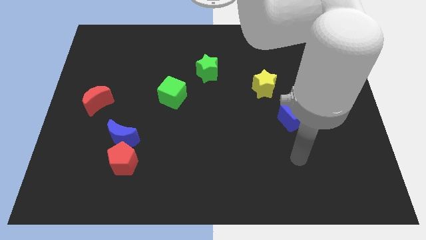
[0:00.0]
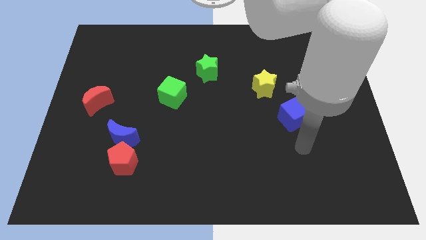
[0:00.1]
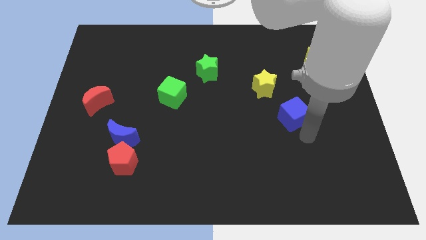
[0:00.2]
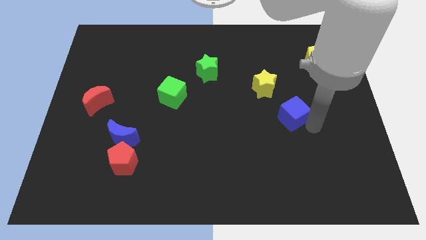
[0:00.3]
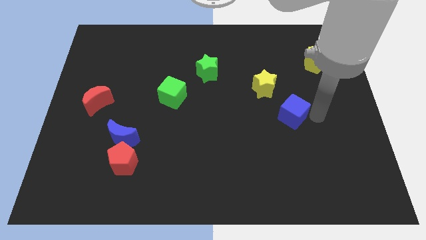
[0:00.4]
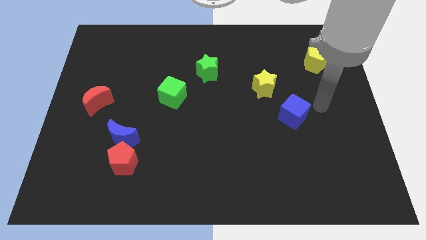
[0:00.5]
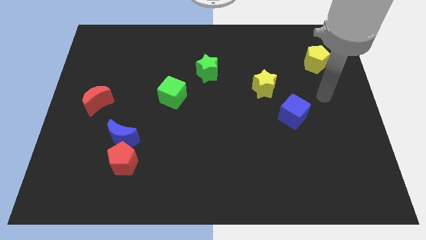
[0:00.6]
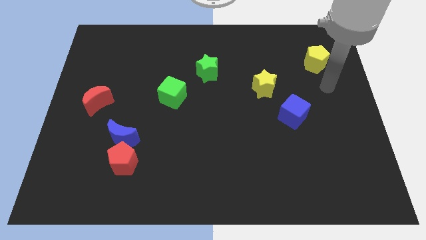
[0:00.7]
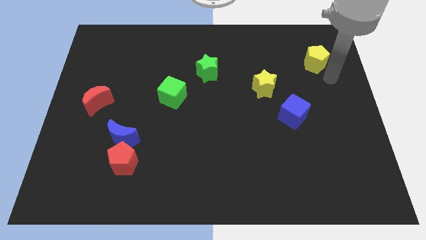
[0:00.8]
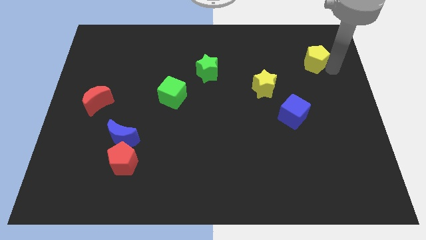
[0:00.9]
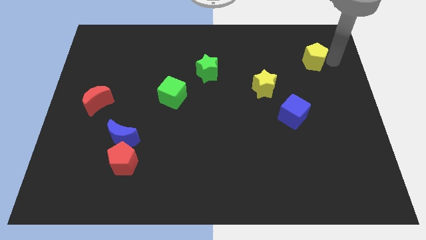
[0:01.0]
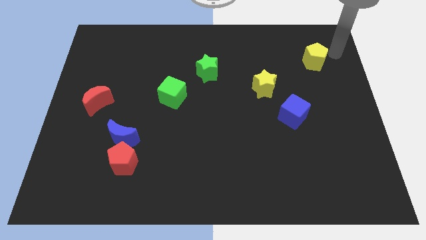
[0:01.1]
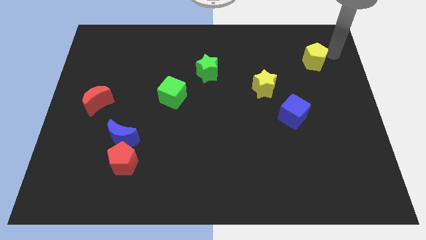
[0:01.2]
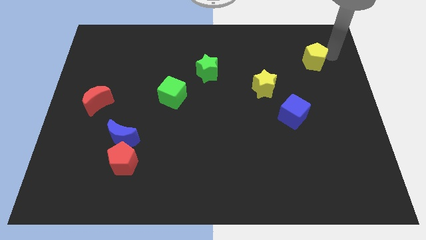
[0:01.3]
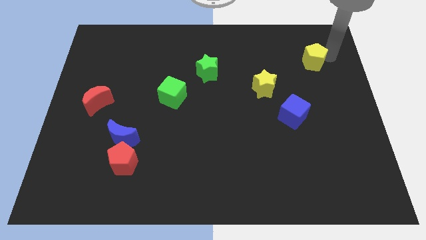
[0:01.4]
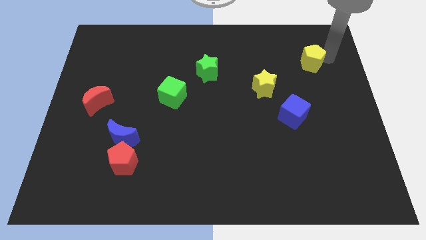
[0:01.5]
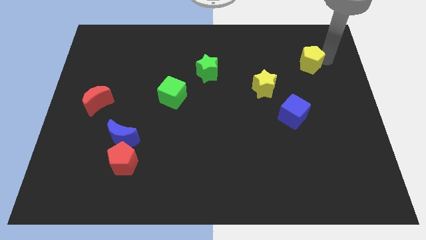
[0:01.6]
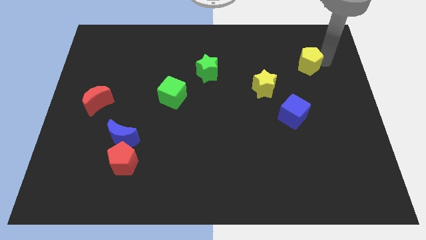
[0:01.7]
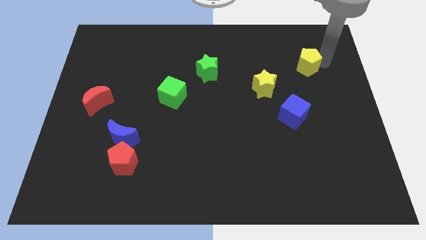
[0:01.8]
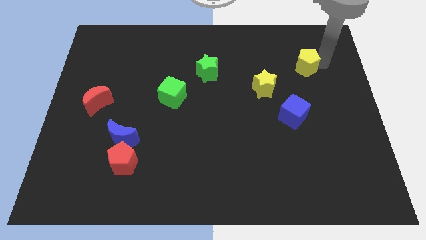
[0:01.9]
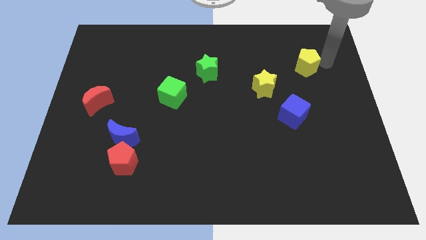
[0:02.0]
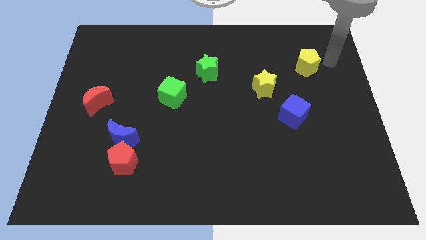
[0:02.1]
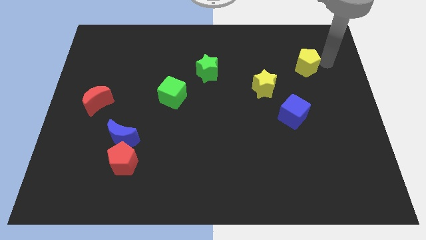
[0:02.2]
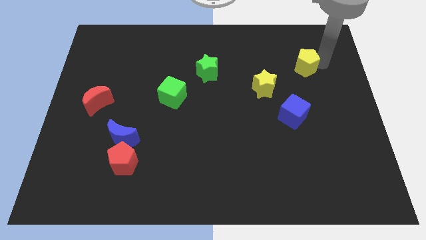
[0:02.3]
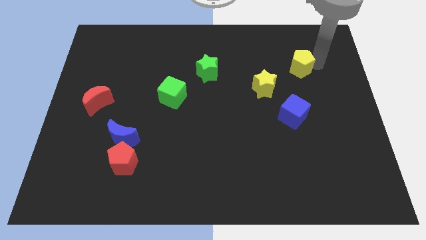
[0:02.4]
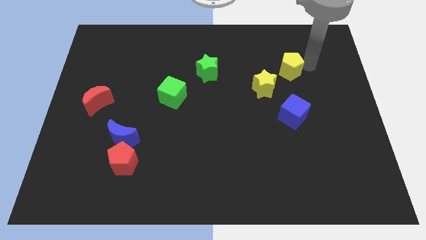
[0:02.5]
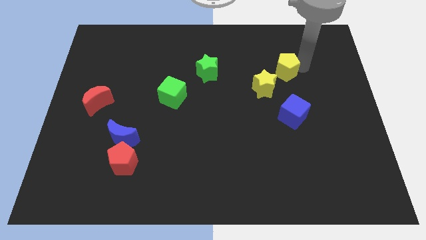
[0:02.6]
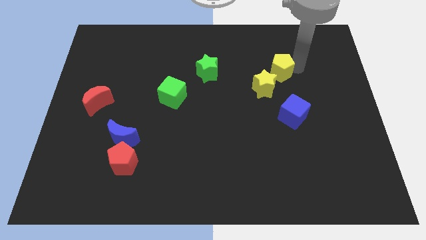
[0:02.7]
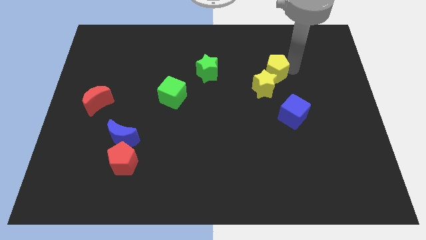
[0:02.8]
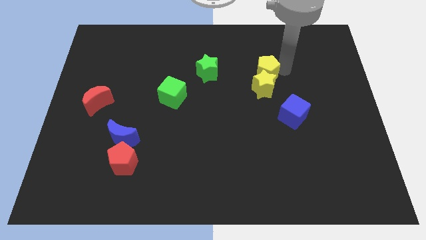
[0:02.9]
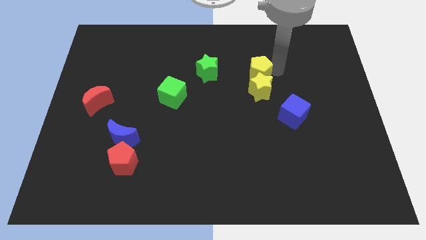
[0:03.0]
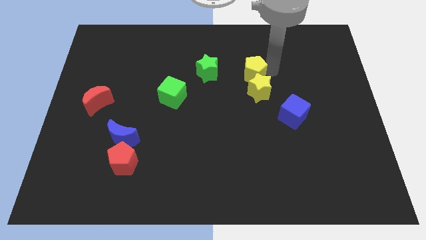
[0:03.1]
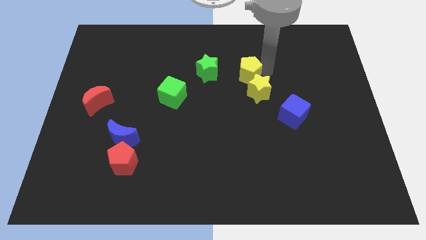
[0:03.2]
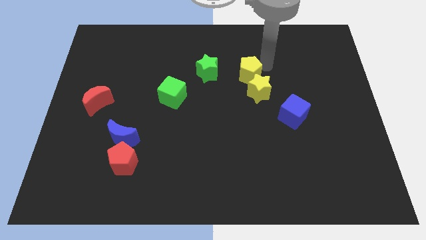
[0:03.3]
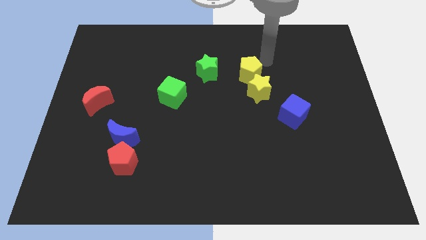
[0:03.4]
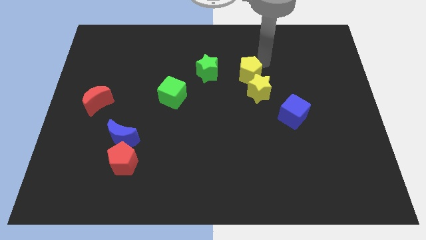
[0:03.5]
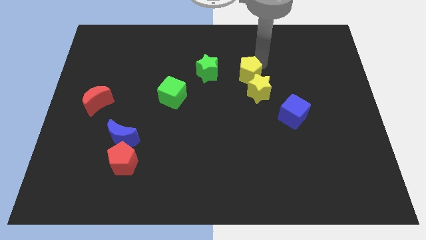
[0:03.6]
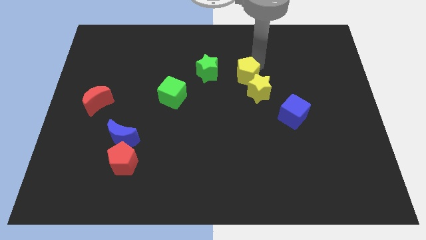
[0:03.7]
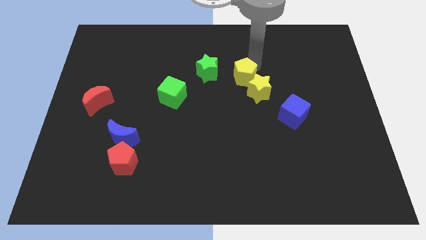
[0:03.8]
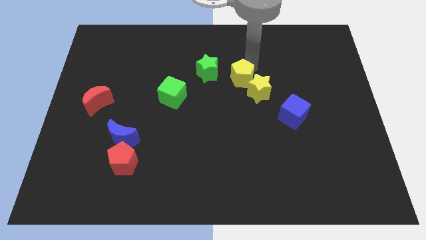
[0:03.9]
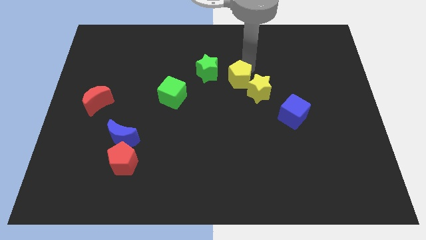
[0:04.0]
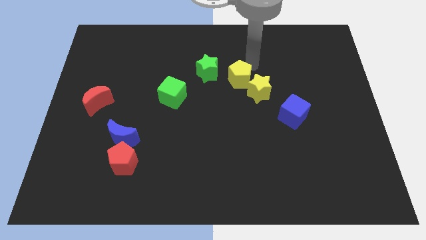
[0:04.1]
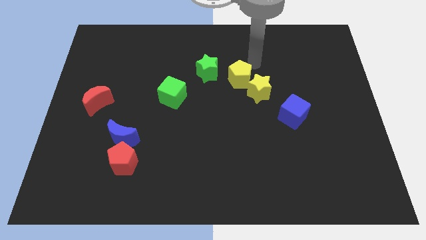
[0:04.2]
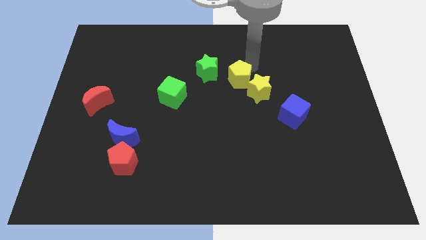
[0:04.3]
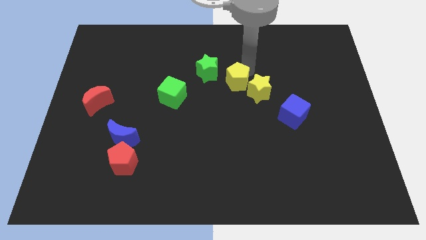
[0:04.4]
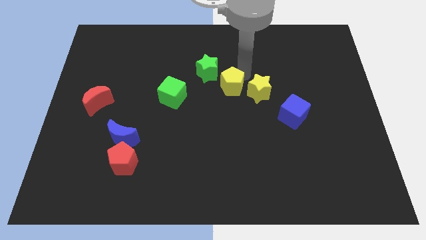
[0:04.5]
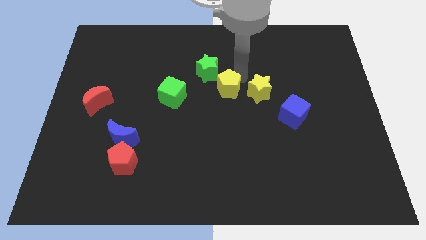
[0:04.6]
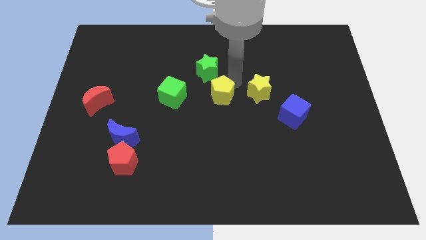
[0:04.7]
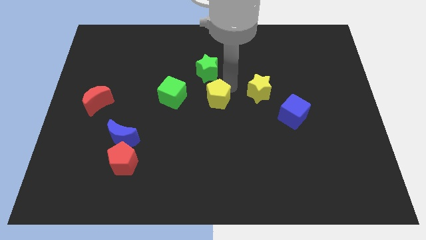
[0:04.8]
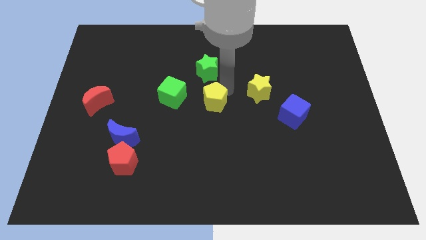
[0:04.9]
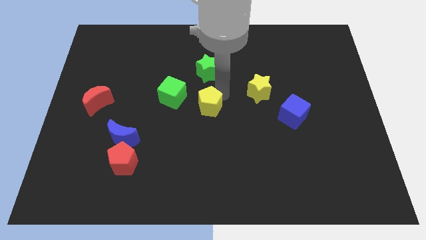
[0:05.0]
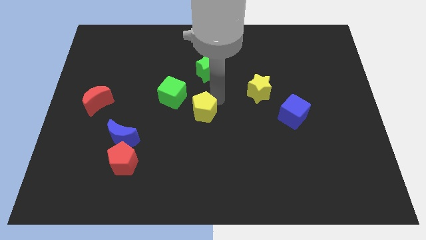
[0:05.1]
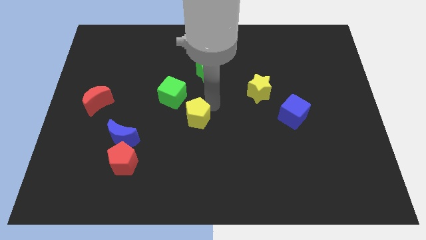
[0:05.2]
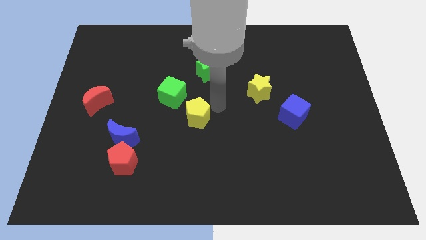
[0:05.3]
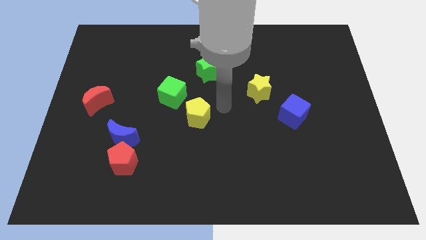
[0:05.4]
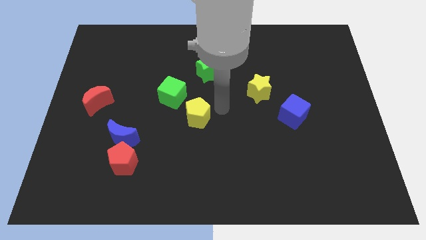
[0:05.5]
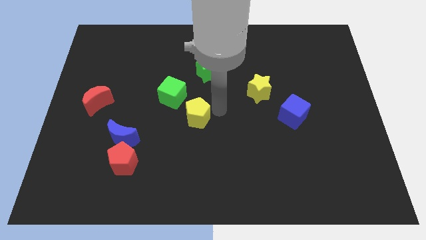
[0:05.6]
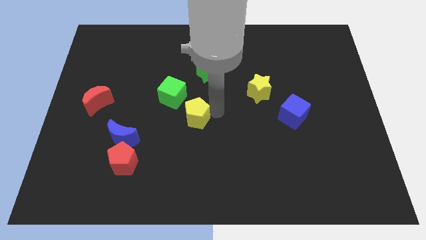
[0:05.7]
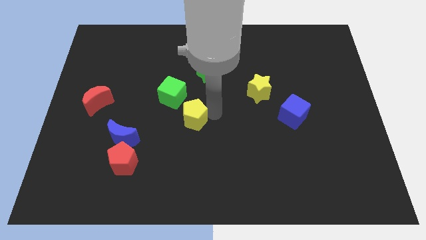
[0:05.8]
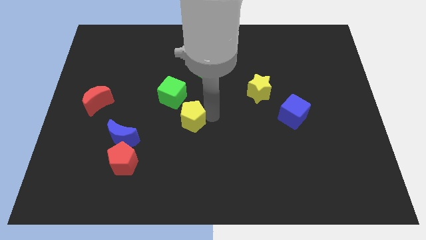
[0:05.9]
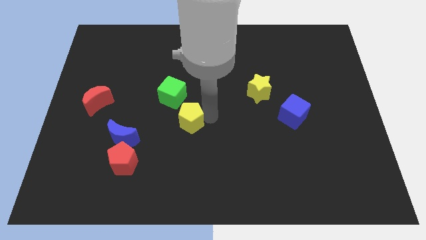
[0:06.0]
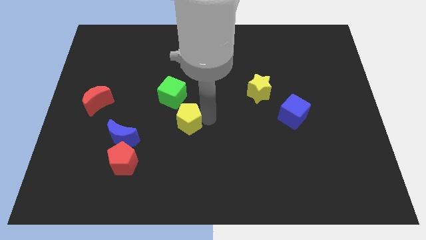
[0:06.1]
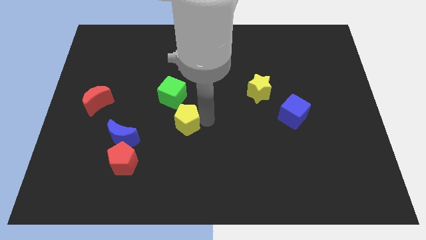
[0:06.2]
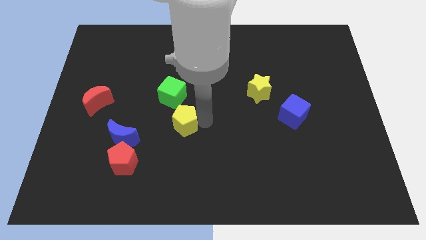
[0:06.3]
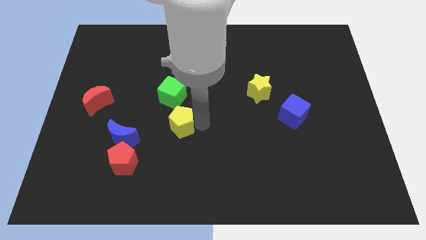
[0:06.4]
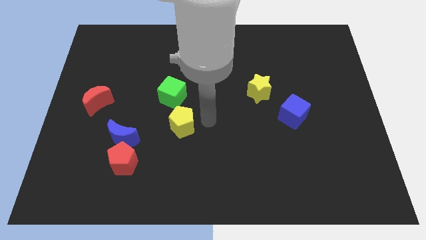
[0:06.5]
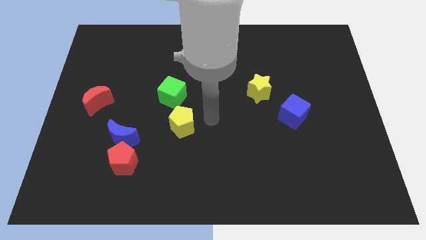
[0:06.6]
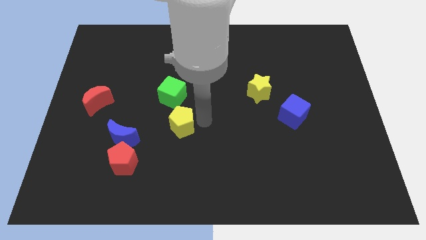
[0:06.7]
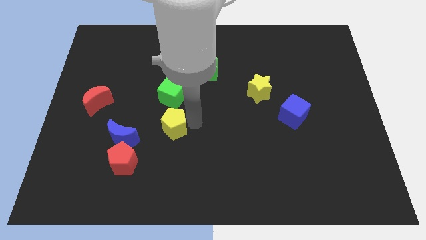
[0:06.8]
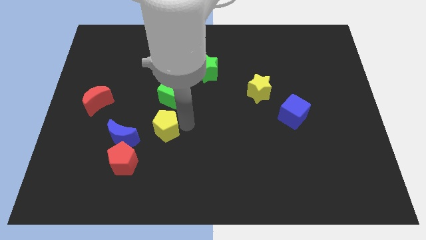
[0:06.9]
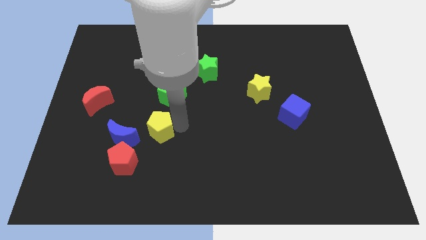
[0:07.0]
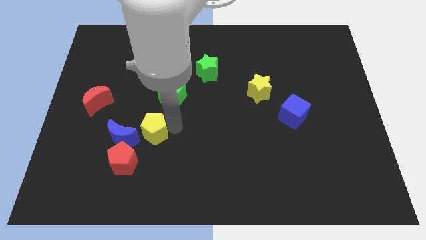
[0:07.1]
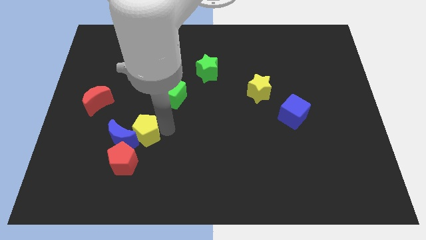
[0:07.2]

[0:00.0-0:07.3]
push the yellow pentagon to the blue moon
